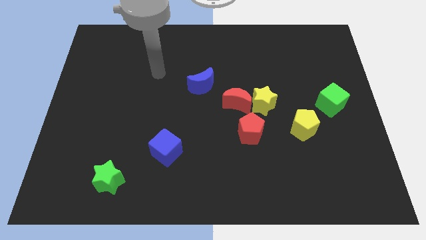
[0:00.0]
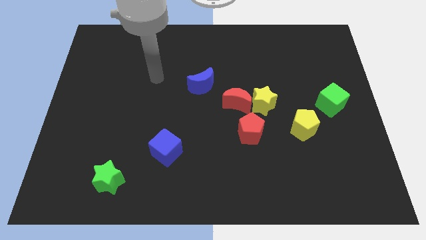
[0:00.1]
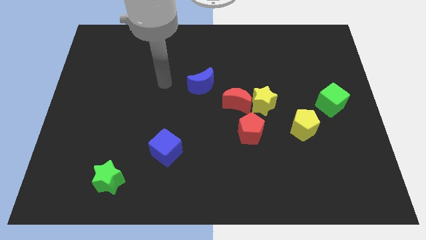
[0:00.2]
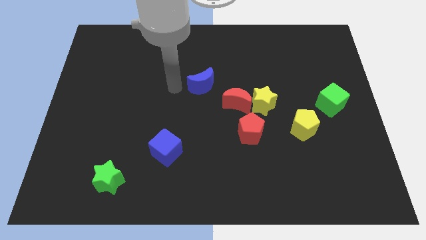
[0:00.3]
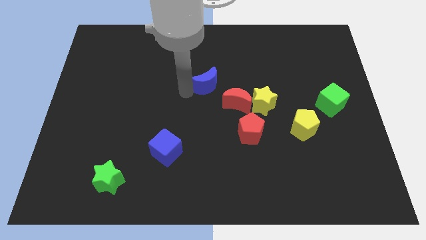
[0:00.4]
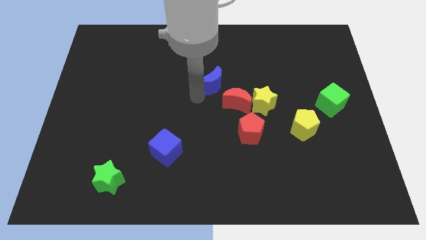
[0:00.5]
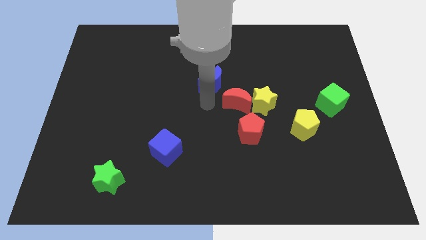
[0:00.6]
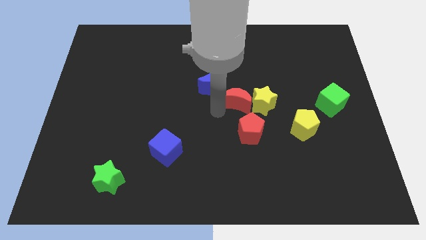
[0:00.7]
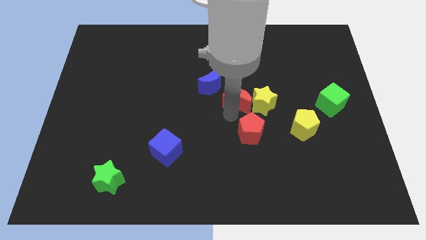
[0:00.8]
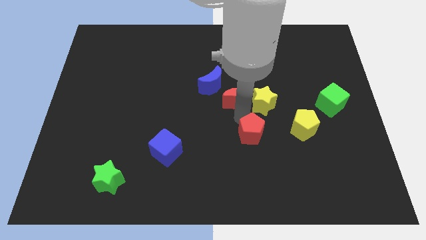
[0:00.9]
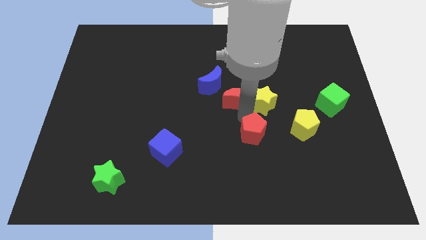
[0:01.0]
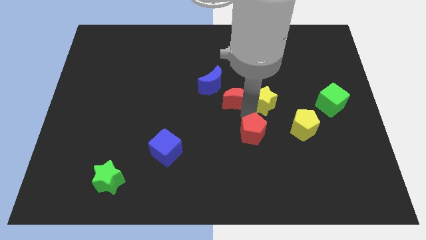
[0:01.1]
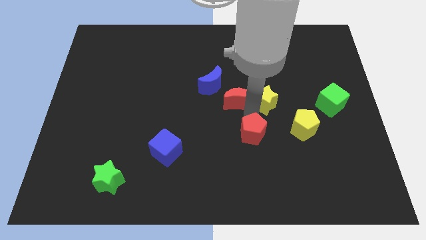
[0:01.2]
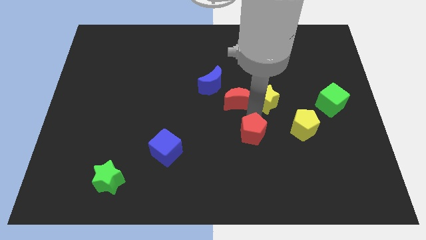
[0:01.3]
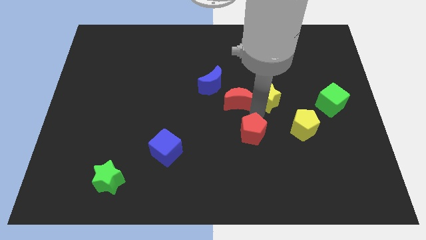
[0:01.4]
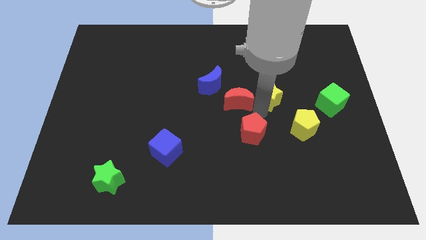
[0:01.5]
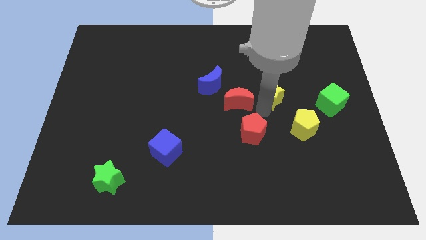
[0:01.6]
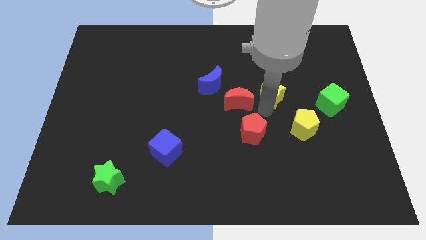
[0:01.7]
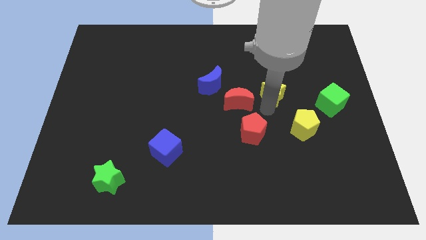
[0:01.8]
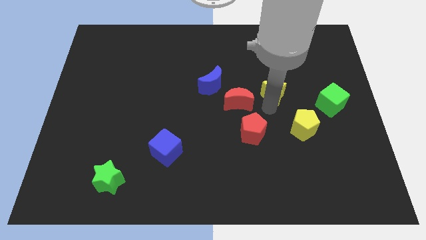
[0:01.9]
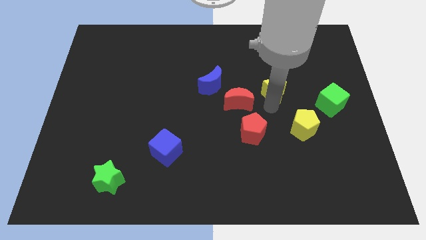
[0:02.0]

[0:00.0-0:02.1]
move the yellow star away from the red moon and red pentagon

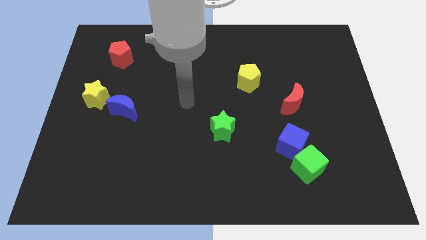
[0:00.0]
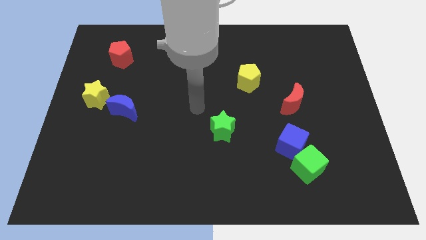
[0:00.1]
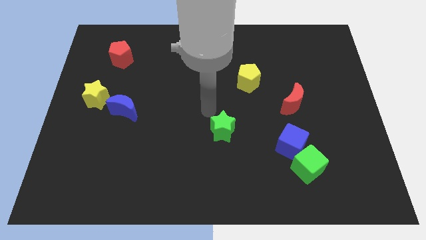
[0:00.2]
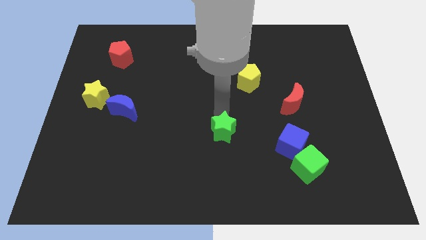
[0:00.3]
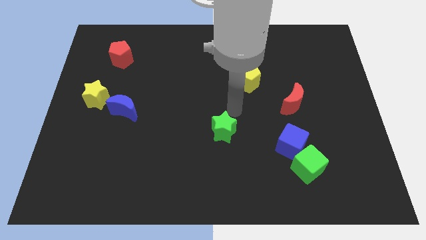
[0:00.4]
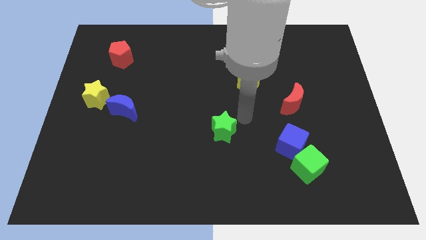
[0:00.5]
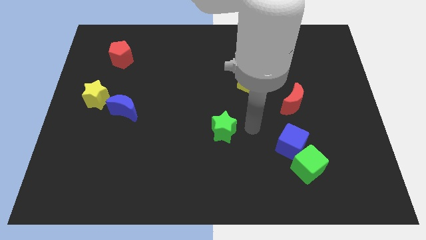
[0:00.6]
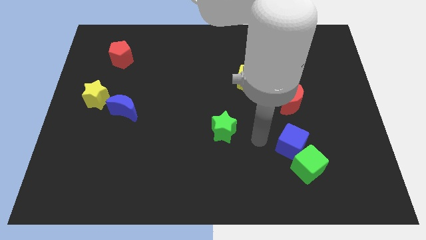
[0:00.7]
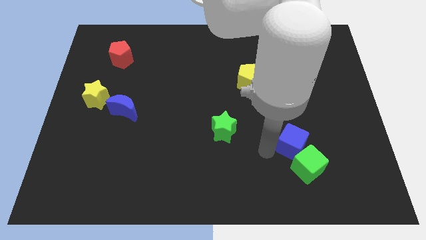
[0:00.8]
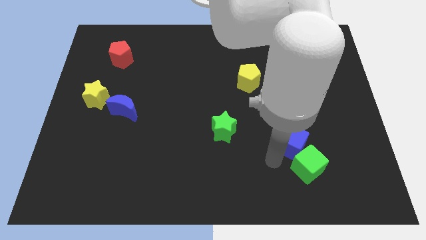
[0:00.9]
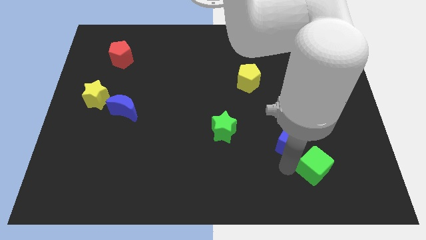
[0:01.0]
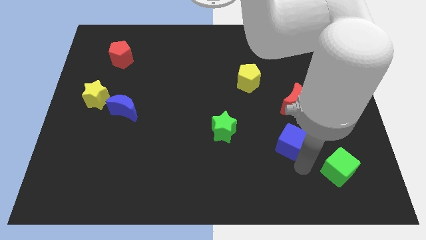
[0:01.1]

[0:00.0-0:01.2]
separate the blue cube from the green cube

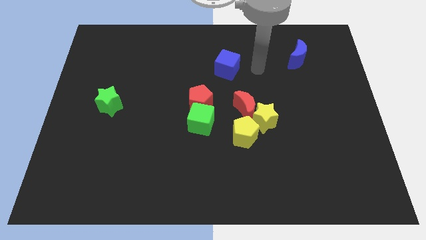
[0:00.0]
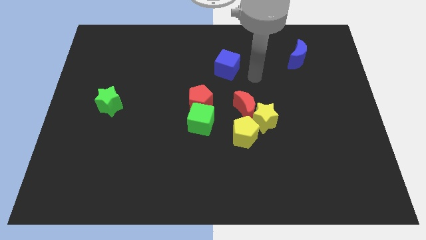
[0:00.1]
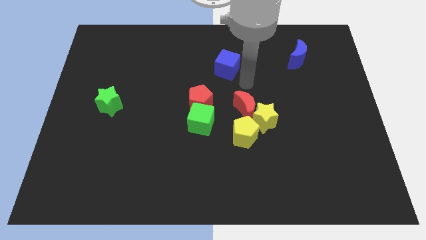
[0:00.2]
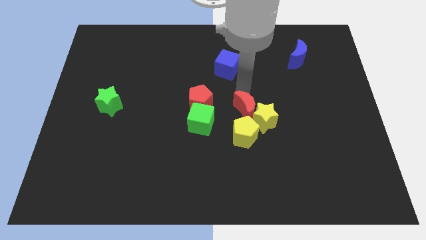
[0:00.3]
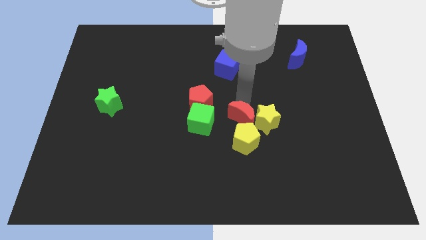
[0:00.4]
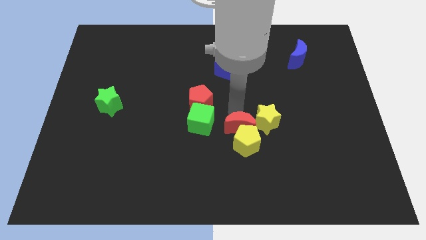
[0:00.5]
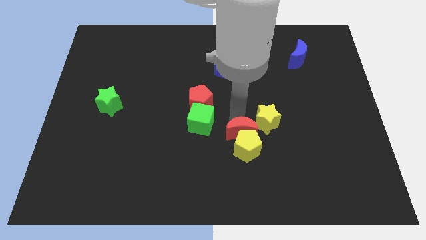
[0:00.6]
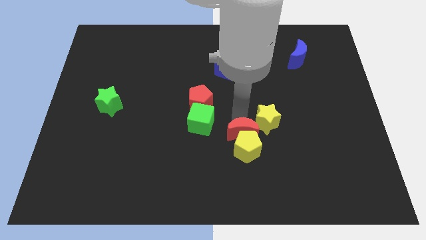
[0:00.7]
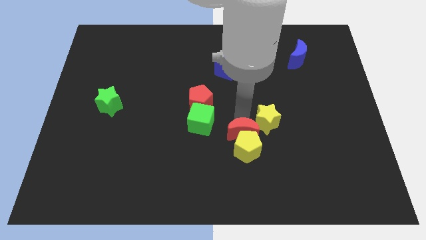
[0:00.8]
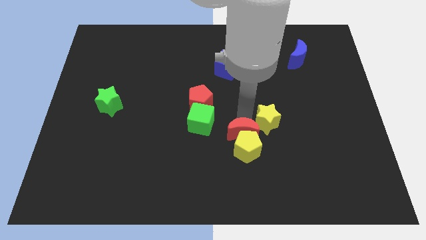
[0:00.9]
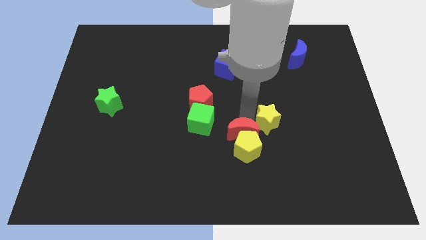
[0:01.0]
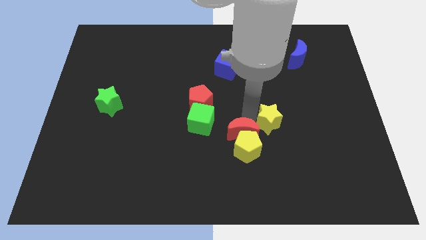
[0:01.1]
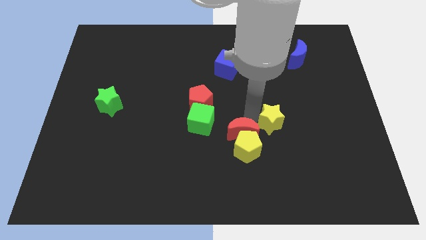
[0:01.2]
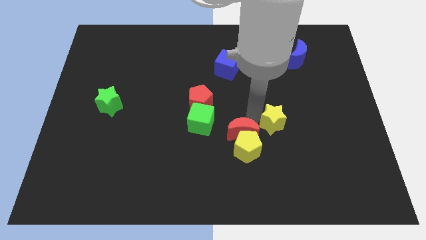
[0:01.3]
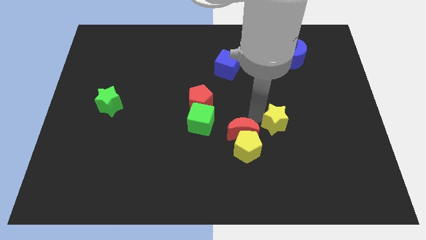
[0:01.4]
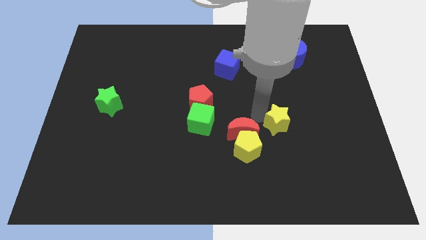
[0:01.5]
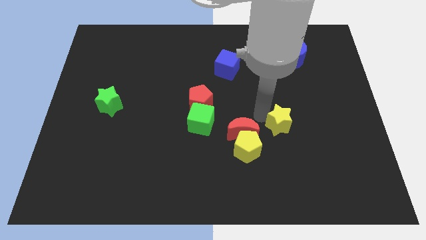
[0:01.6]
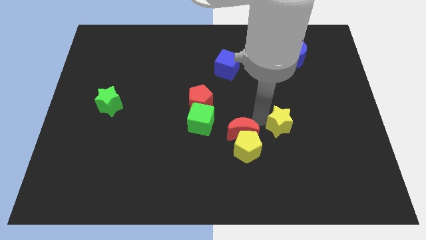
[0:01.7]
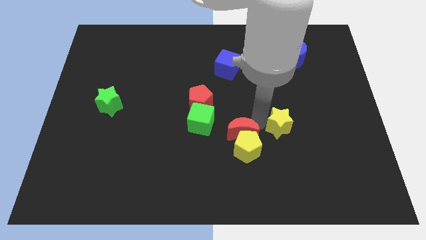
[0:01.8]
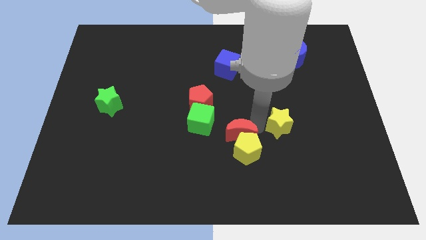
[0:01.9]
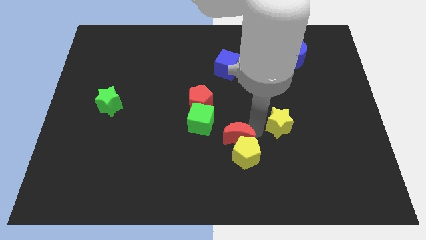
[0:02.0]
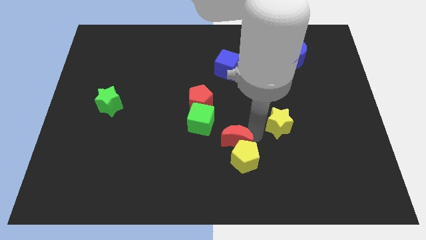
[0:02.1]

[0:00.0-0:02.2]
separate the yellow star from the red moon and yellow pentagon

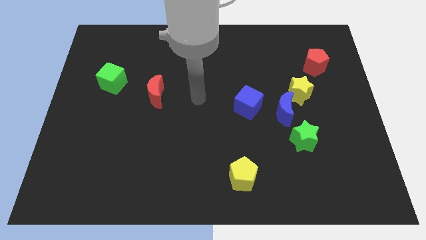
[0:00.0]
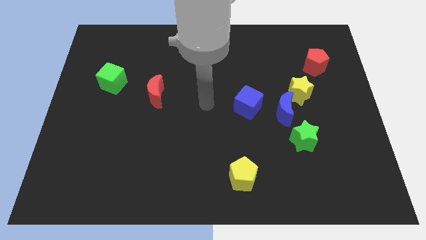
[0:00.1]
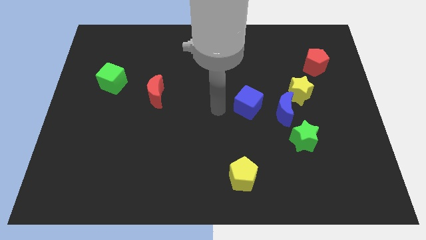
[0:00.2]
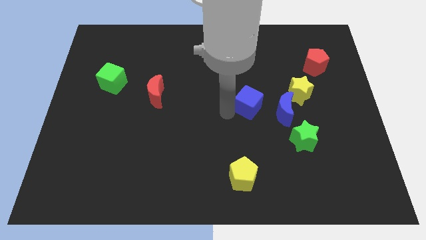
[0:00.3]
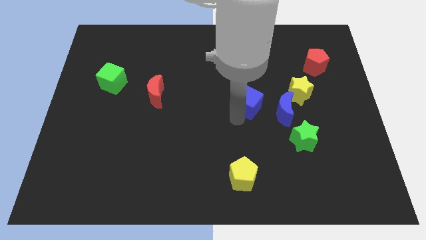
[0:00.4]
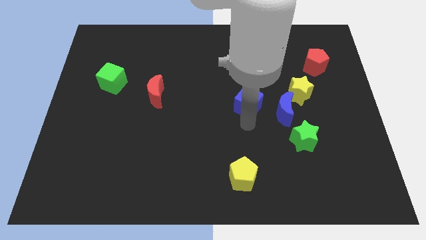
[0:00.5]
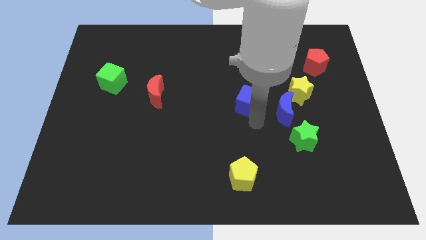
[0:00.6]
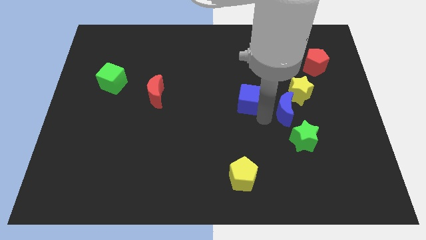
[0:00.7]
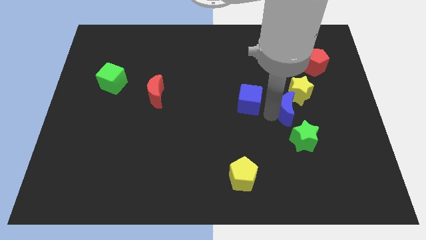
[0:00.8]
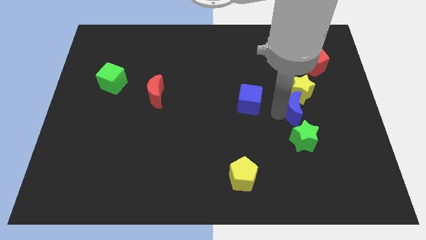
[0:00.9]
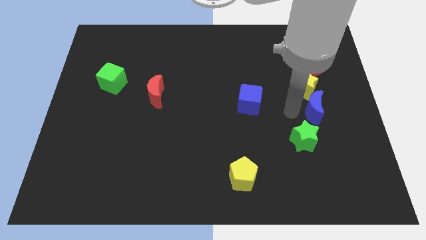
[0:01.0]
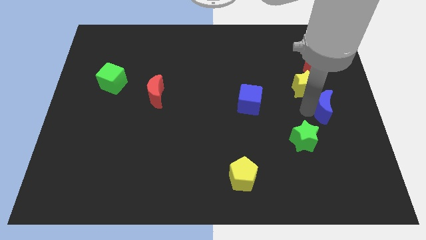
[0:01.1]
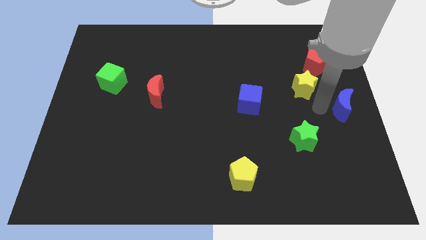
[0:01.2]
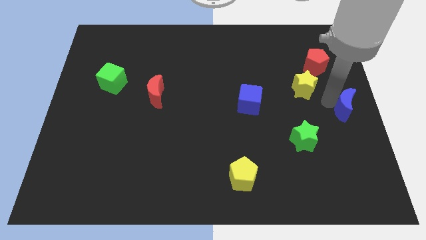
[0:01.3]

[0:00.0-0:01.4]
separate the yellow star from the blue moon

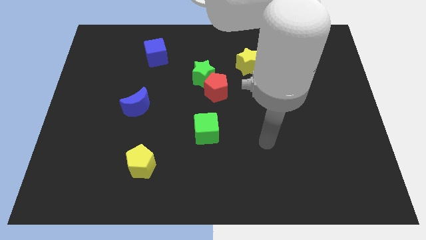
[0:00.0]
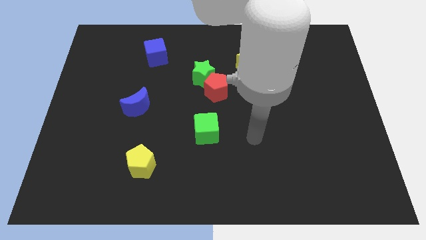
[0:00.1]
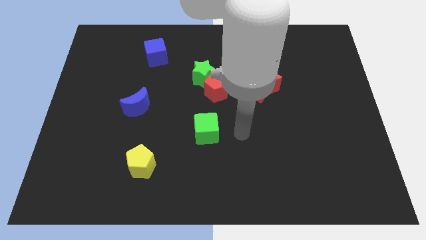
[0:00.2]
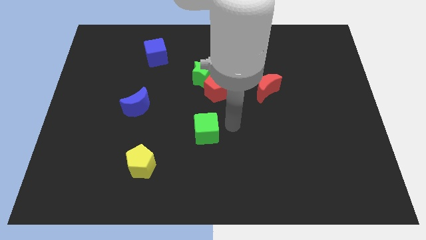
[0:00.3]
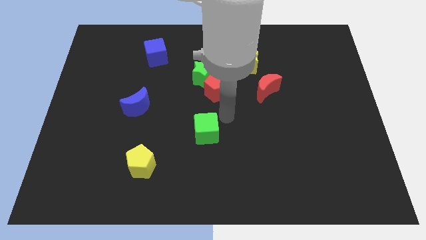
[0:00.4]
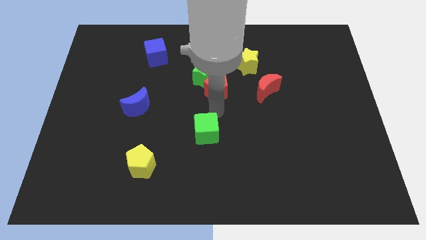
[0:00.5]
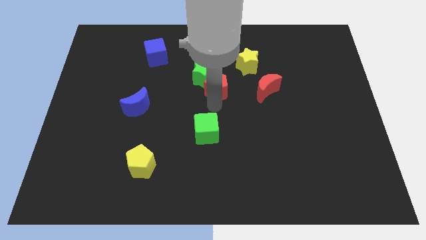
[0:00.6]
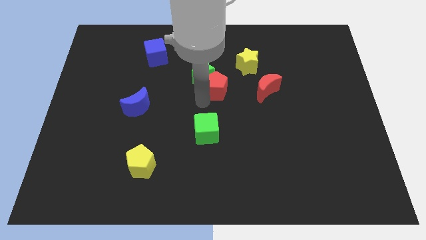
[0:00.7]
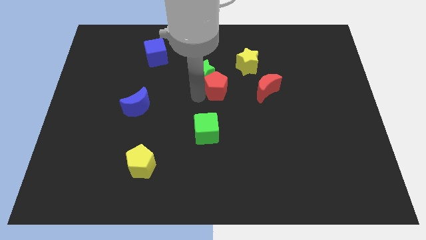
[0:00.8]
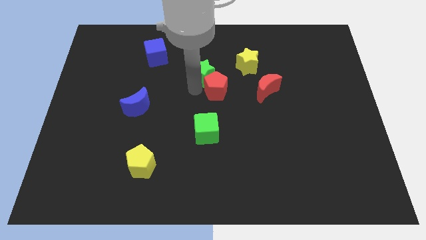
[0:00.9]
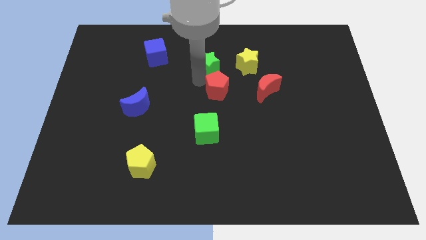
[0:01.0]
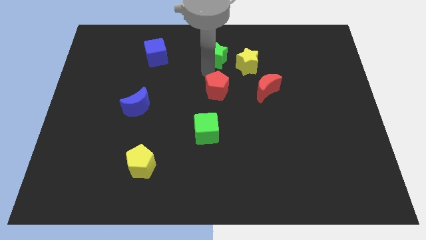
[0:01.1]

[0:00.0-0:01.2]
separate the red pentagon from the green star

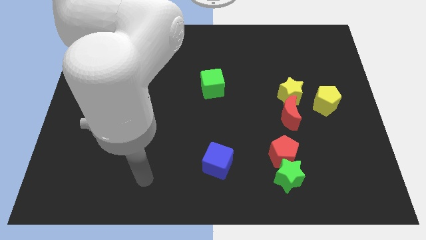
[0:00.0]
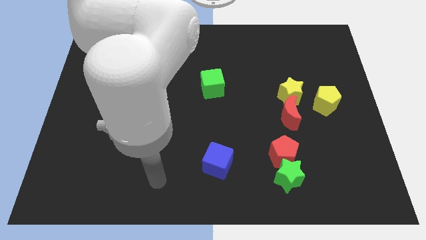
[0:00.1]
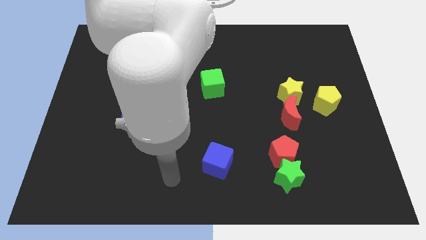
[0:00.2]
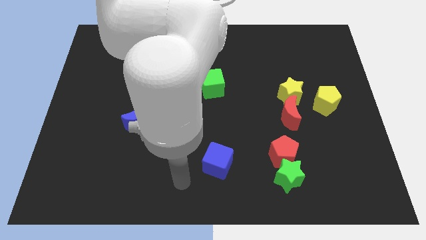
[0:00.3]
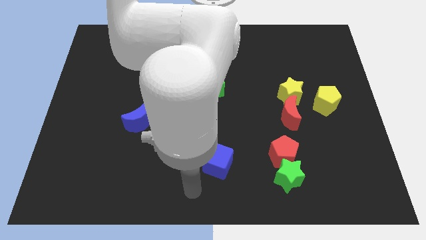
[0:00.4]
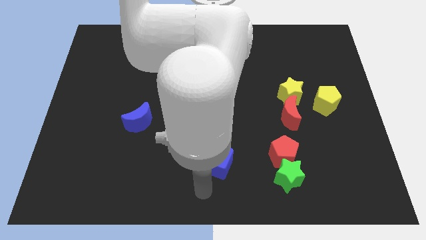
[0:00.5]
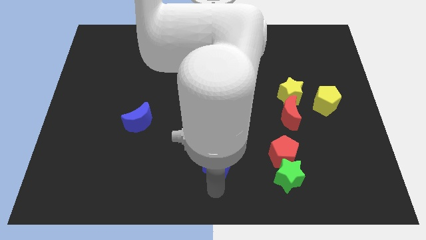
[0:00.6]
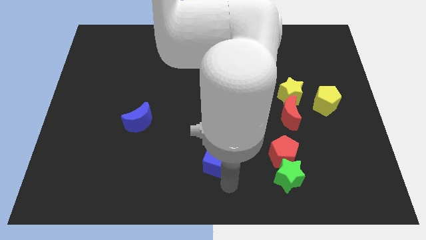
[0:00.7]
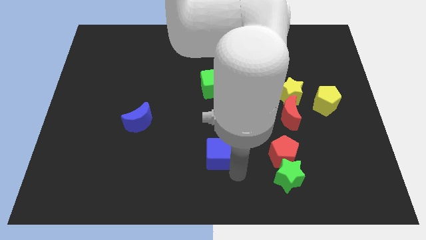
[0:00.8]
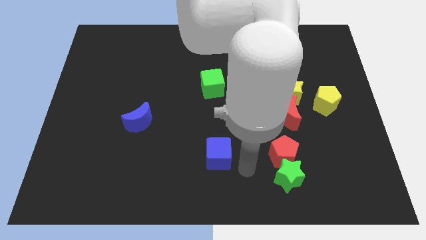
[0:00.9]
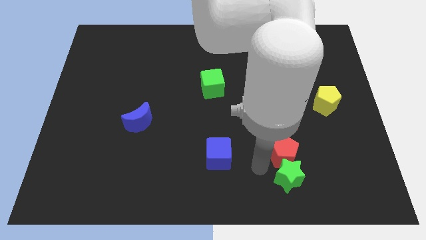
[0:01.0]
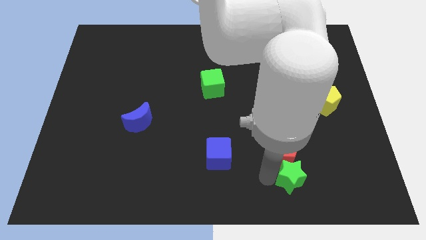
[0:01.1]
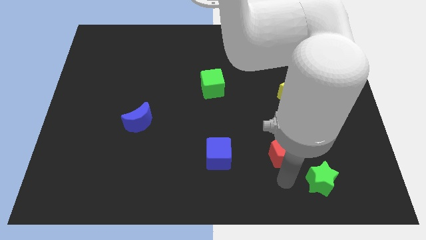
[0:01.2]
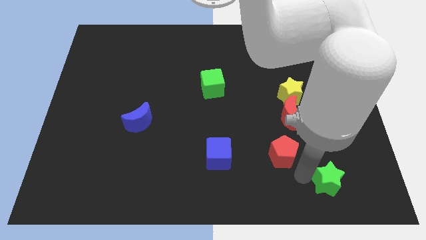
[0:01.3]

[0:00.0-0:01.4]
move the red pentagon away from the green star
